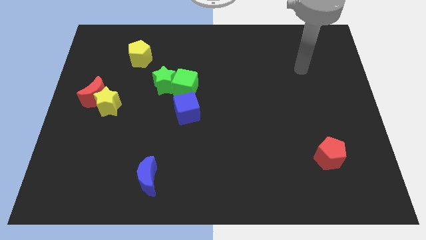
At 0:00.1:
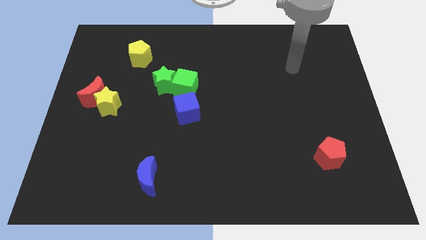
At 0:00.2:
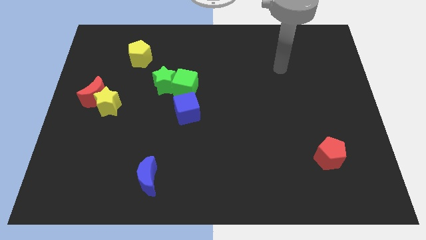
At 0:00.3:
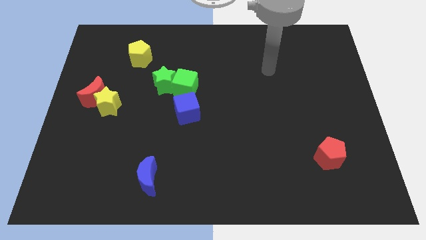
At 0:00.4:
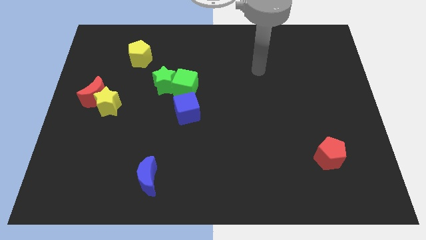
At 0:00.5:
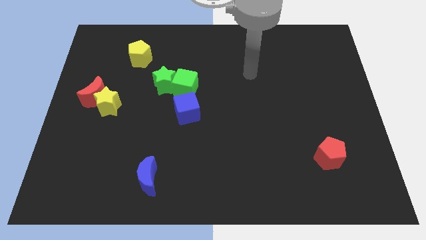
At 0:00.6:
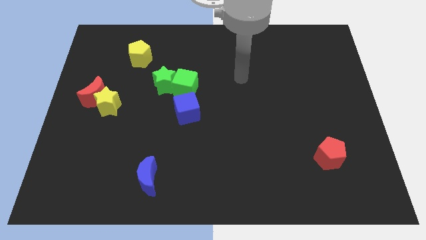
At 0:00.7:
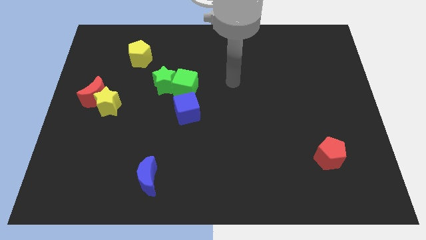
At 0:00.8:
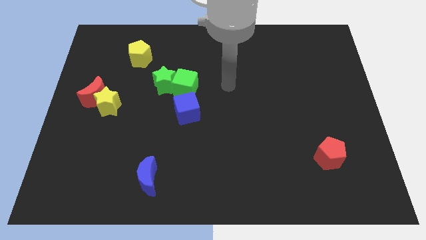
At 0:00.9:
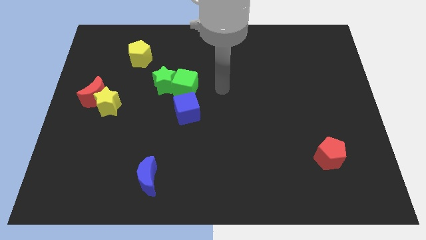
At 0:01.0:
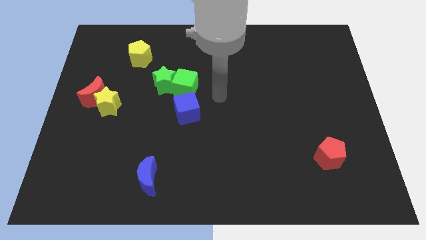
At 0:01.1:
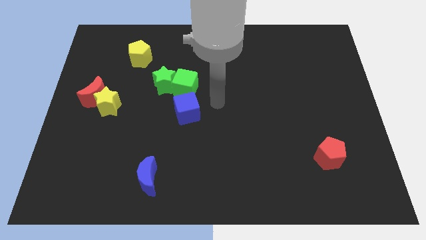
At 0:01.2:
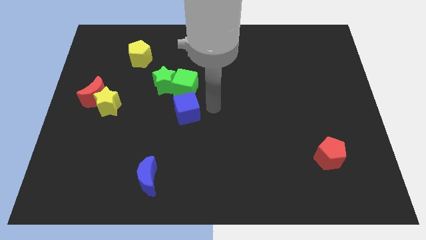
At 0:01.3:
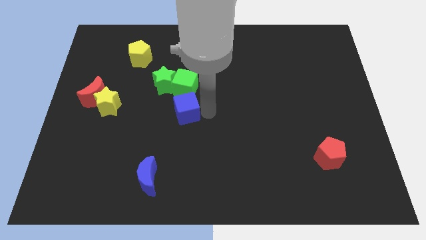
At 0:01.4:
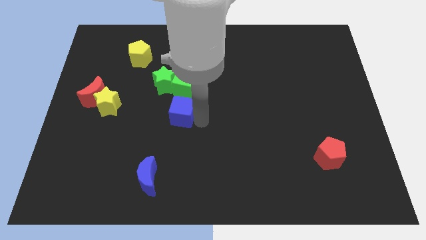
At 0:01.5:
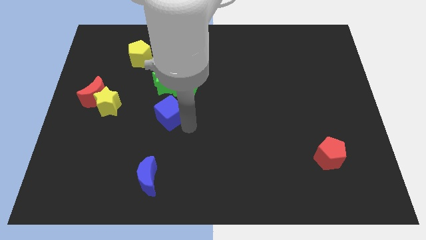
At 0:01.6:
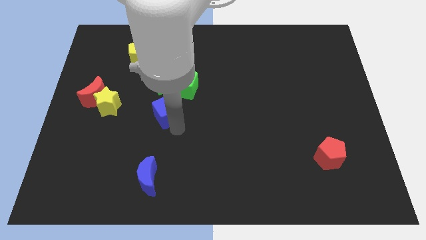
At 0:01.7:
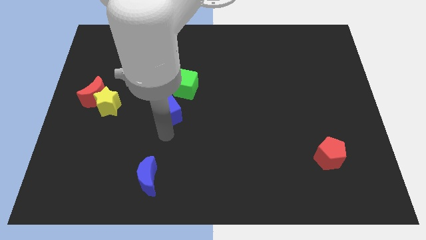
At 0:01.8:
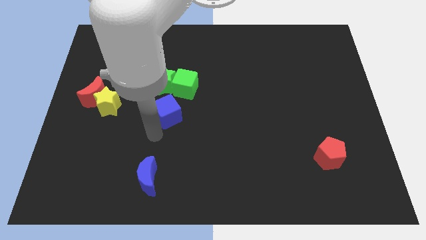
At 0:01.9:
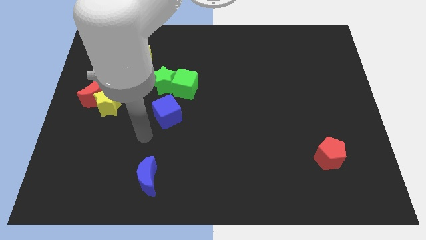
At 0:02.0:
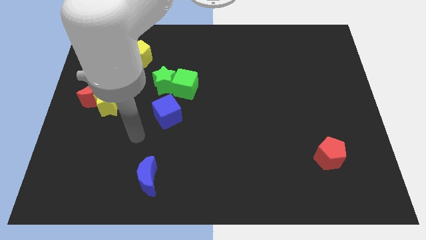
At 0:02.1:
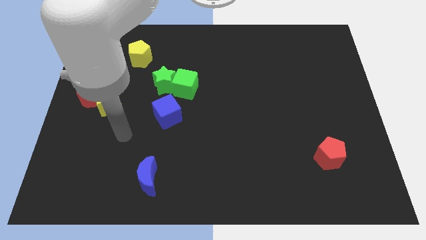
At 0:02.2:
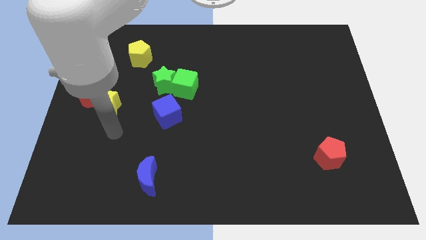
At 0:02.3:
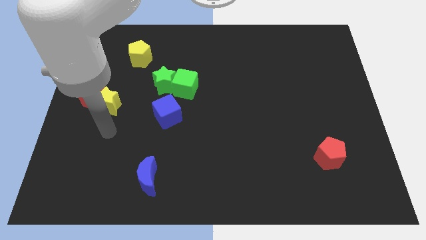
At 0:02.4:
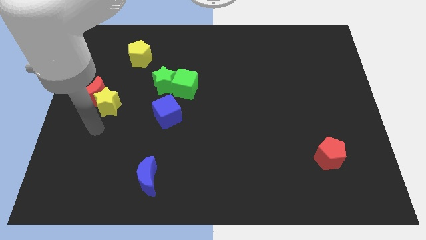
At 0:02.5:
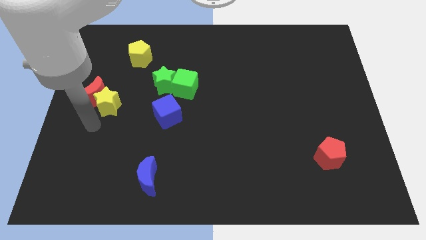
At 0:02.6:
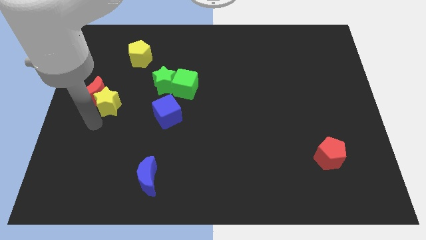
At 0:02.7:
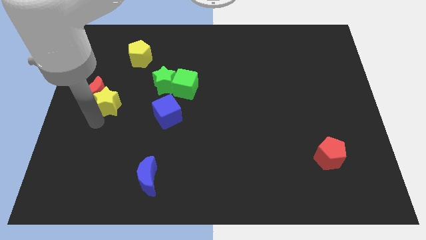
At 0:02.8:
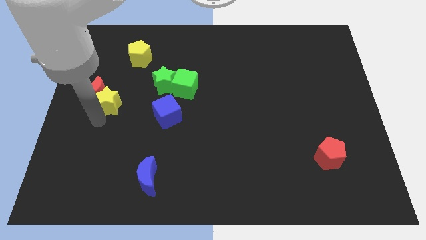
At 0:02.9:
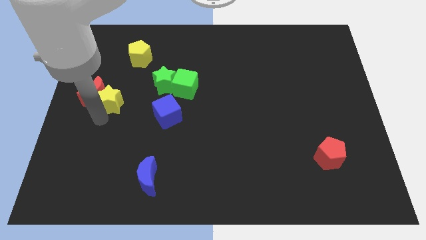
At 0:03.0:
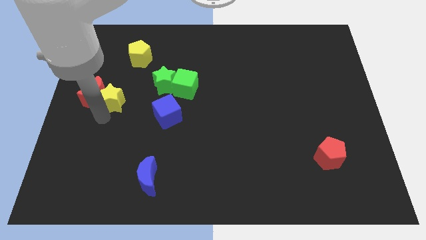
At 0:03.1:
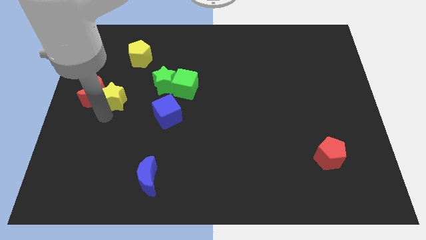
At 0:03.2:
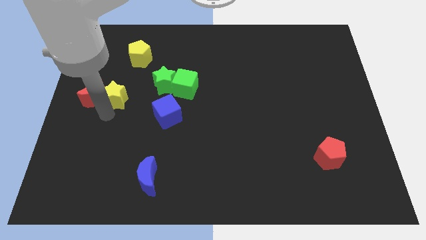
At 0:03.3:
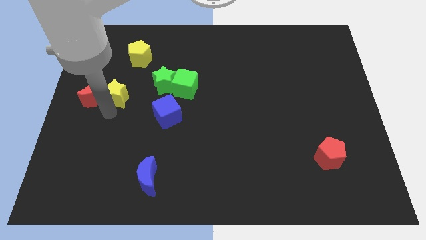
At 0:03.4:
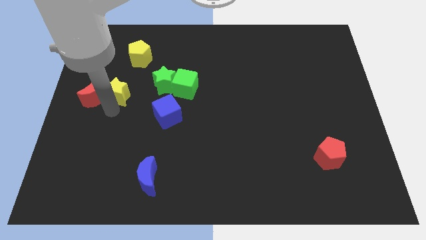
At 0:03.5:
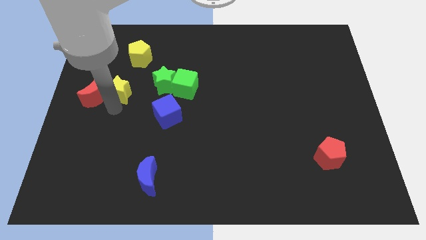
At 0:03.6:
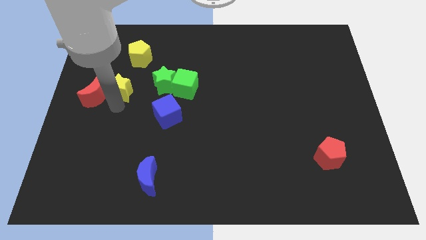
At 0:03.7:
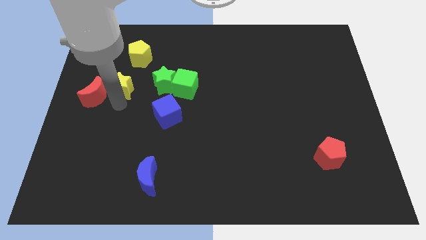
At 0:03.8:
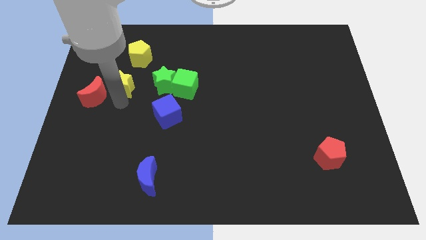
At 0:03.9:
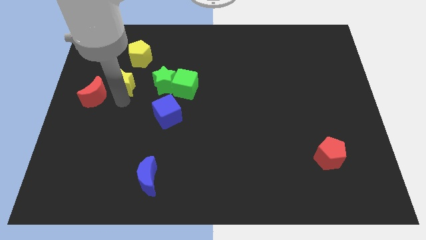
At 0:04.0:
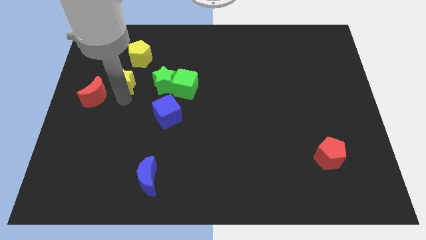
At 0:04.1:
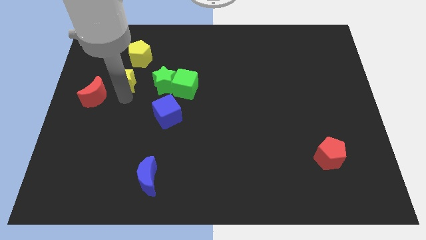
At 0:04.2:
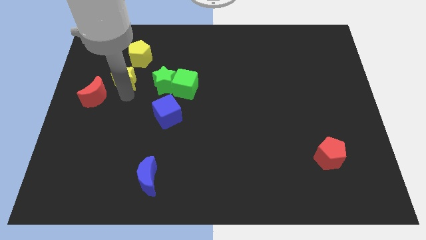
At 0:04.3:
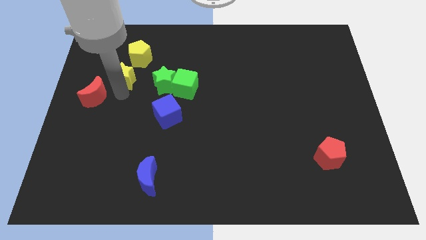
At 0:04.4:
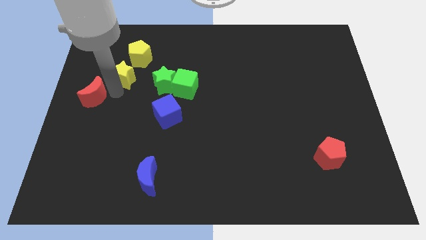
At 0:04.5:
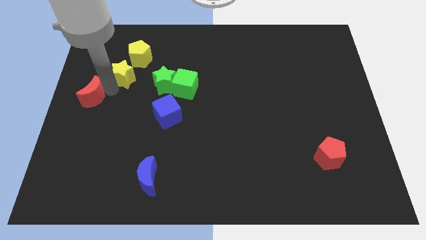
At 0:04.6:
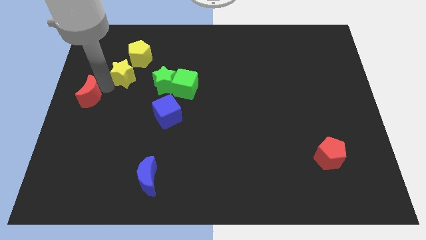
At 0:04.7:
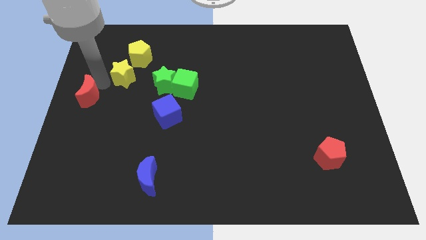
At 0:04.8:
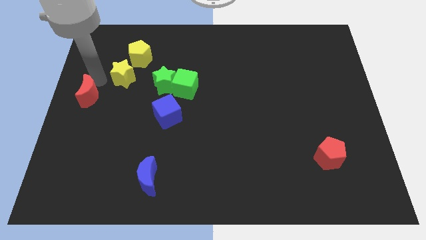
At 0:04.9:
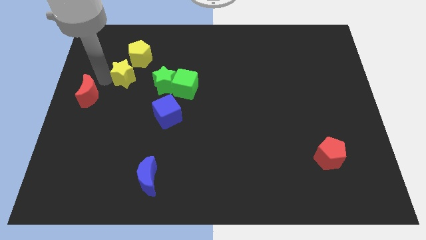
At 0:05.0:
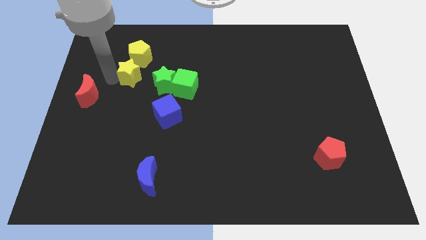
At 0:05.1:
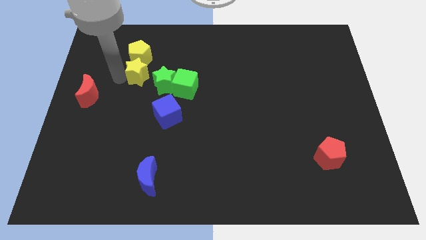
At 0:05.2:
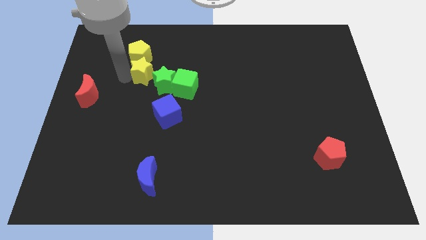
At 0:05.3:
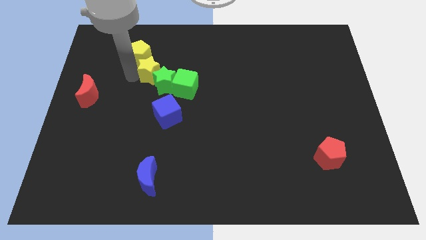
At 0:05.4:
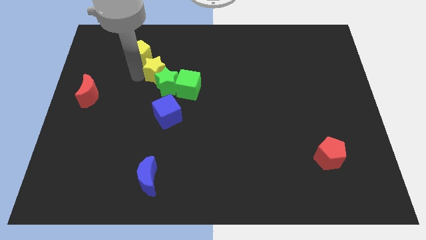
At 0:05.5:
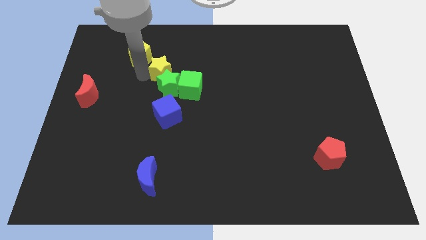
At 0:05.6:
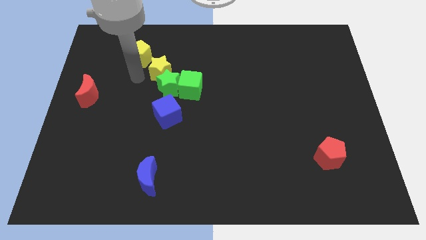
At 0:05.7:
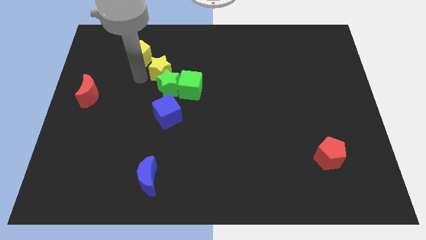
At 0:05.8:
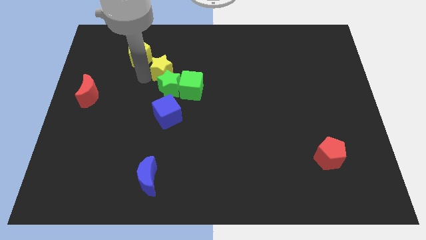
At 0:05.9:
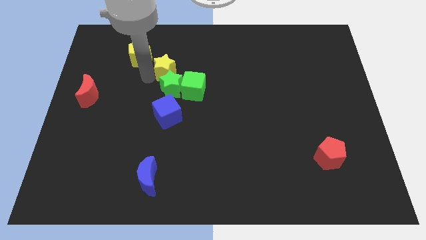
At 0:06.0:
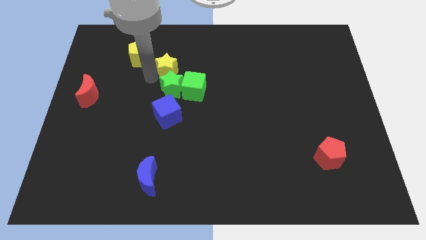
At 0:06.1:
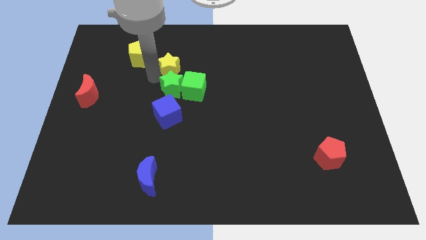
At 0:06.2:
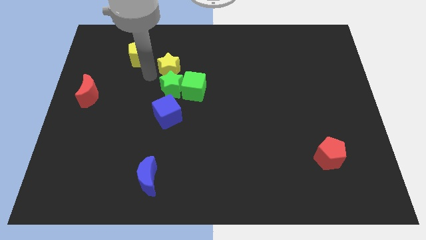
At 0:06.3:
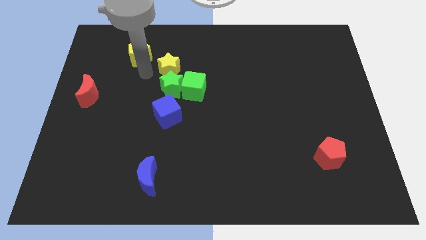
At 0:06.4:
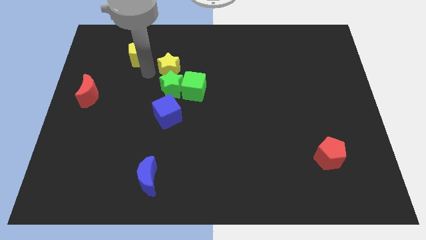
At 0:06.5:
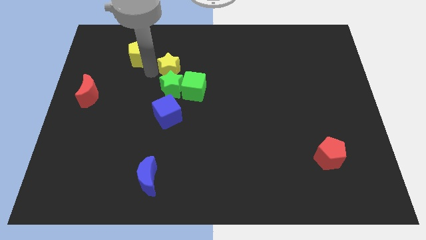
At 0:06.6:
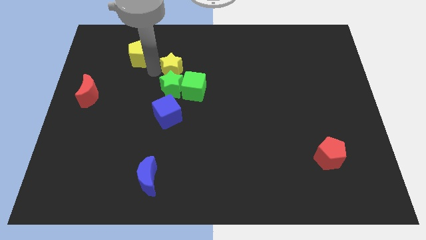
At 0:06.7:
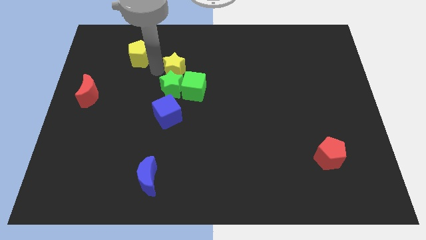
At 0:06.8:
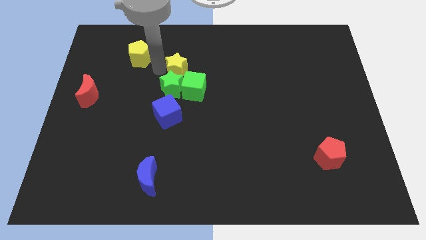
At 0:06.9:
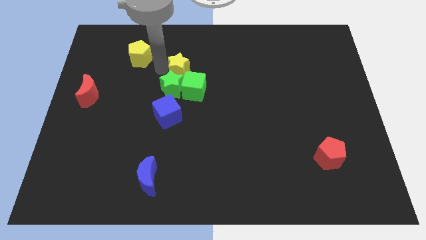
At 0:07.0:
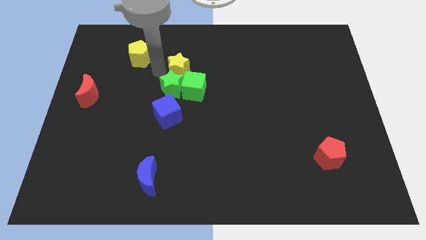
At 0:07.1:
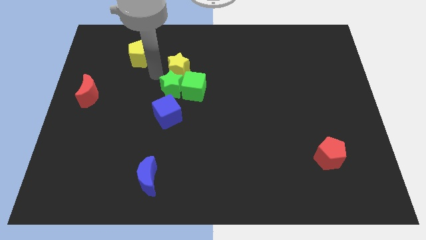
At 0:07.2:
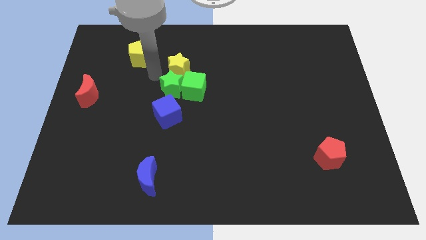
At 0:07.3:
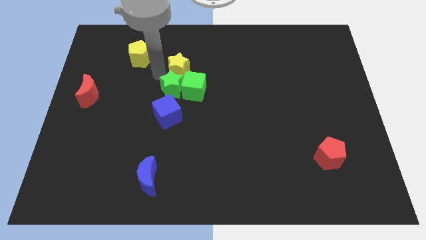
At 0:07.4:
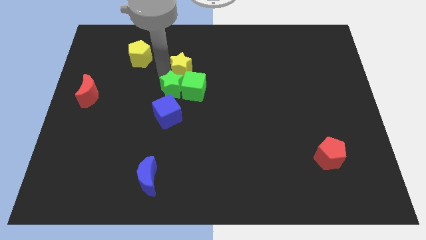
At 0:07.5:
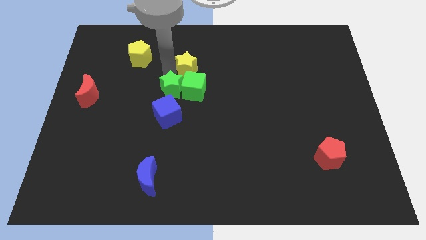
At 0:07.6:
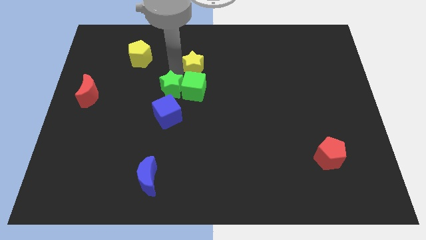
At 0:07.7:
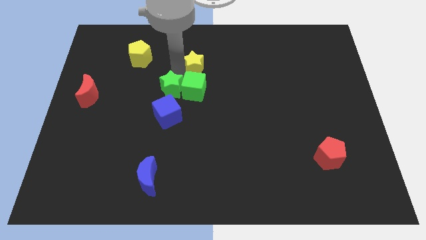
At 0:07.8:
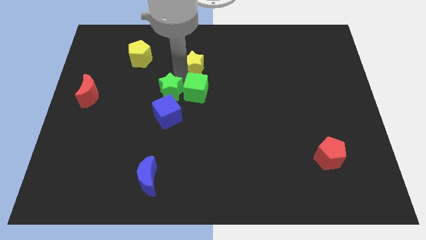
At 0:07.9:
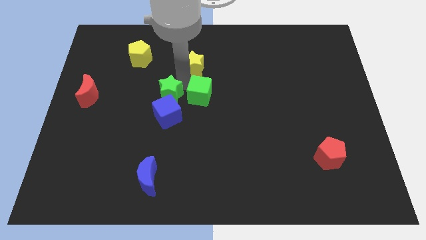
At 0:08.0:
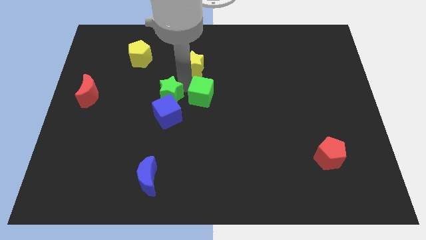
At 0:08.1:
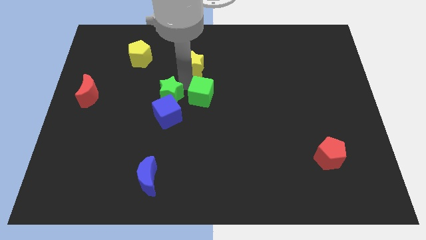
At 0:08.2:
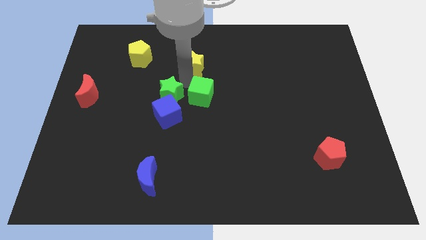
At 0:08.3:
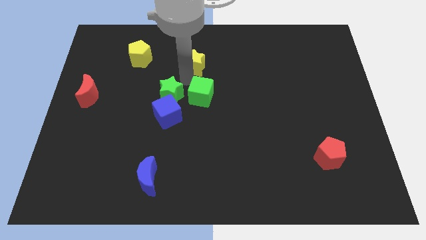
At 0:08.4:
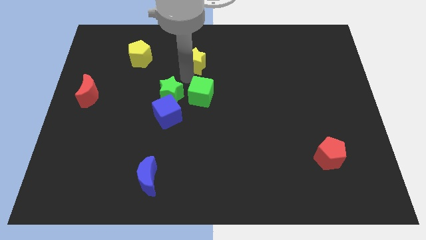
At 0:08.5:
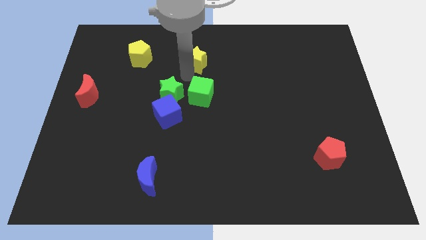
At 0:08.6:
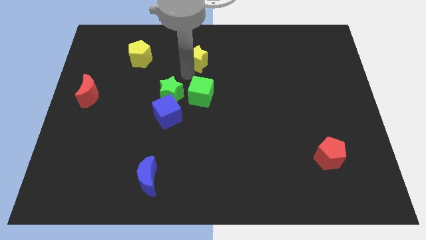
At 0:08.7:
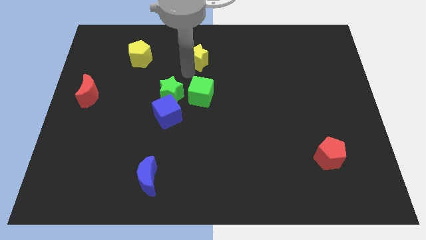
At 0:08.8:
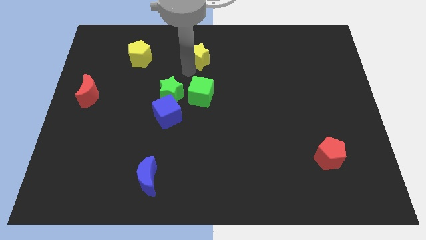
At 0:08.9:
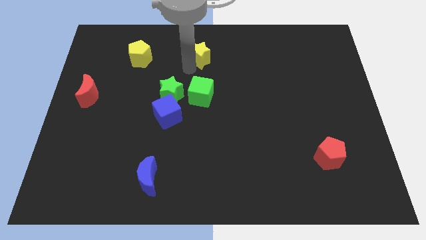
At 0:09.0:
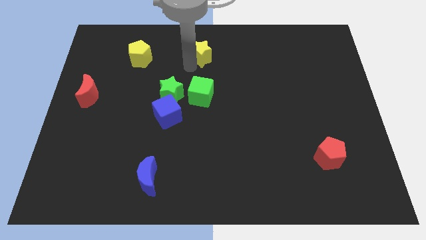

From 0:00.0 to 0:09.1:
move the yellow star to the top
